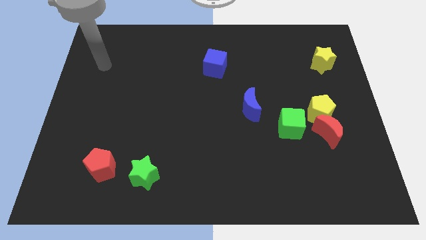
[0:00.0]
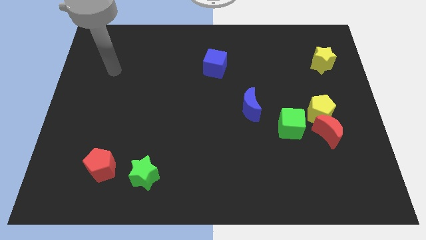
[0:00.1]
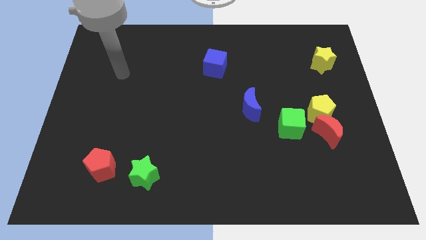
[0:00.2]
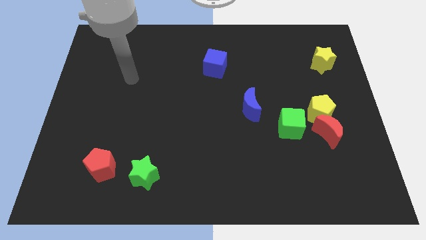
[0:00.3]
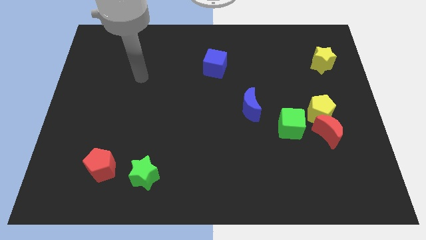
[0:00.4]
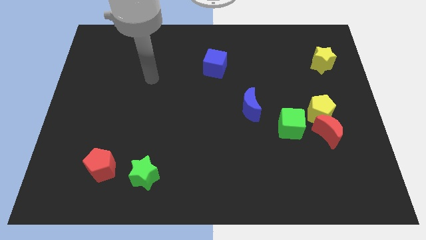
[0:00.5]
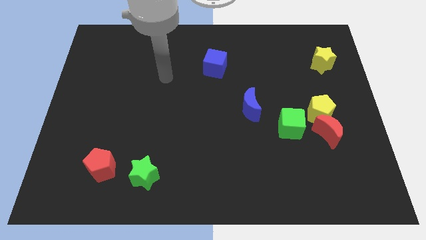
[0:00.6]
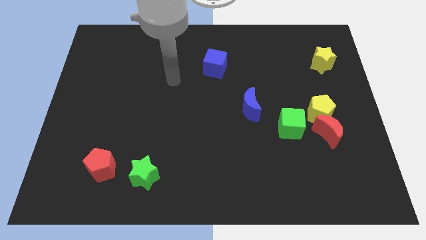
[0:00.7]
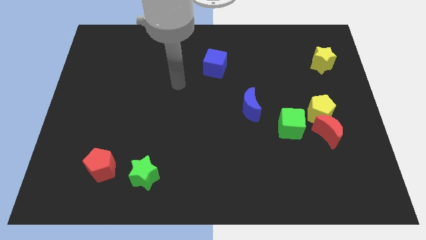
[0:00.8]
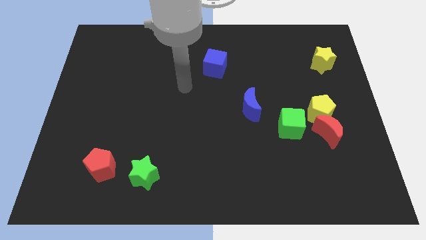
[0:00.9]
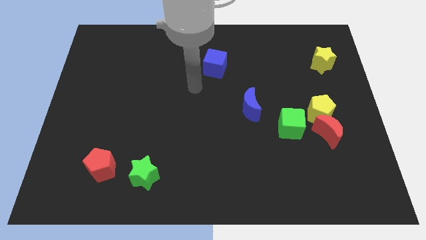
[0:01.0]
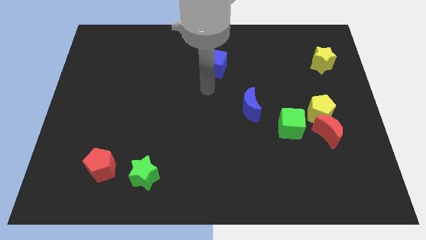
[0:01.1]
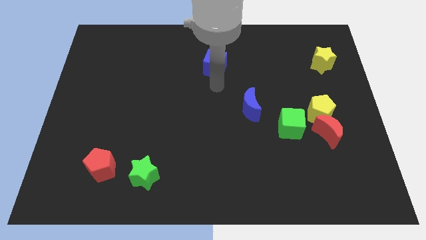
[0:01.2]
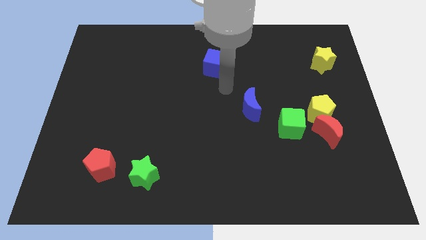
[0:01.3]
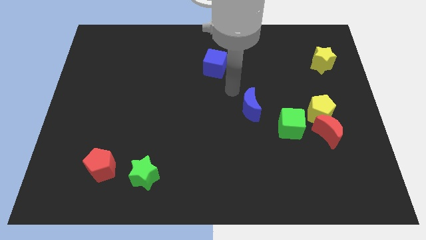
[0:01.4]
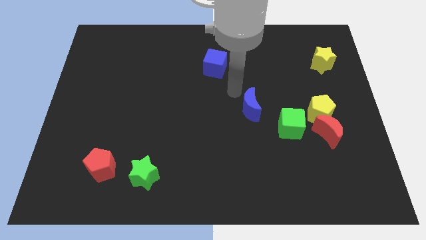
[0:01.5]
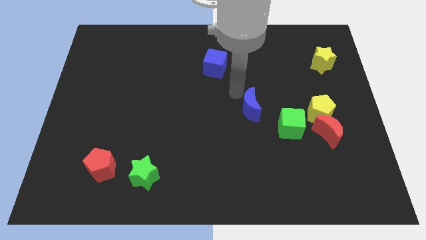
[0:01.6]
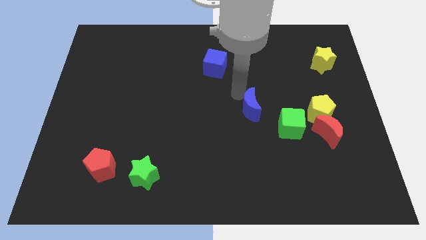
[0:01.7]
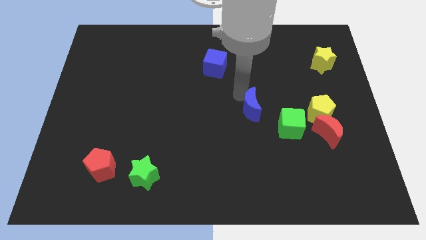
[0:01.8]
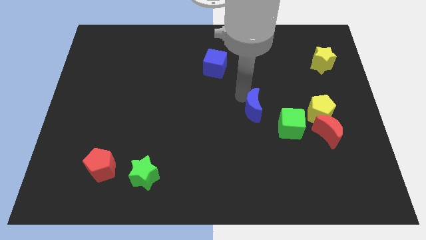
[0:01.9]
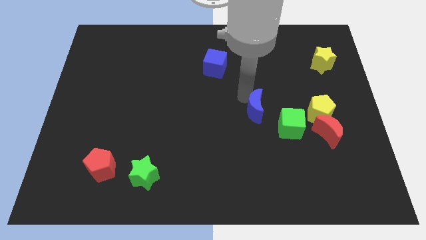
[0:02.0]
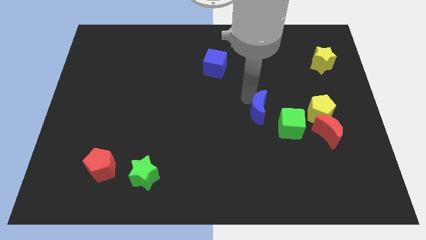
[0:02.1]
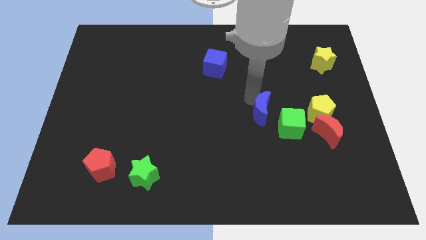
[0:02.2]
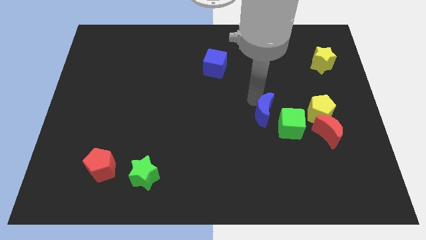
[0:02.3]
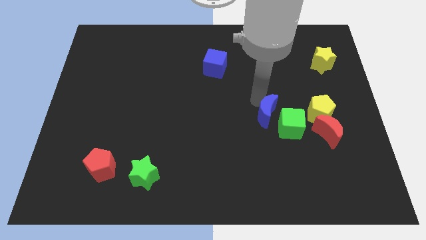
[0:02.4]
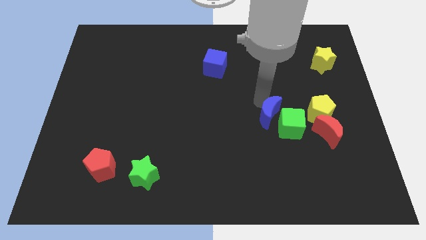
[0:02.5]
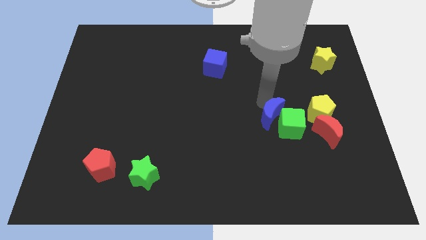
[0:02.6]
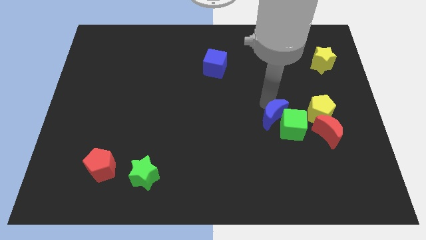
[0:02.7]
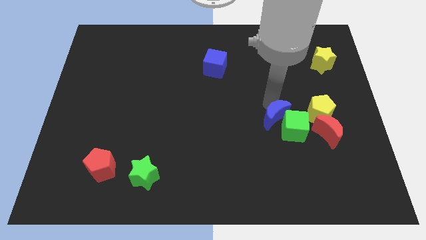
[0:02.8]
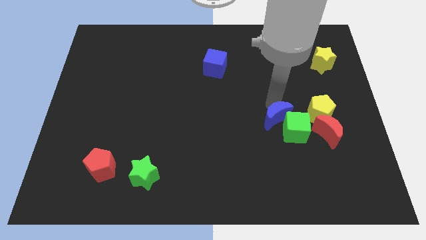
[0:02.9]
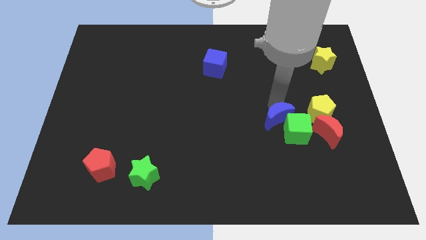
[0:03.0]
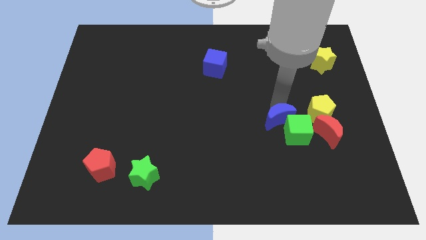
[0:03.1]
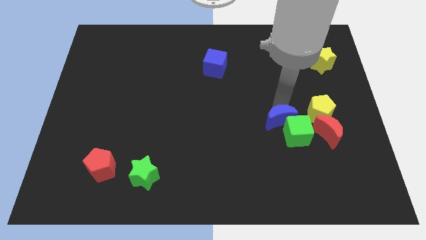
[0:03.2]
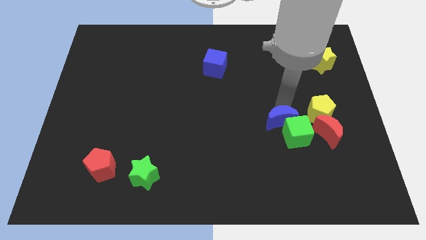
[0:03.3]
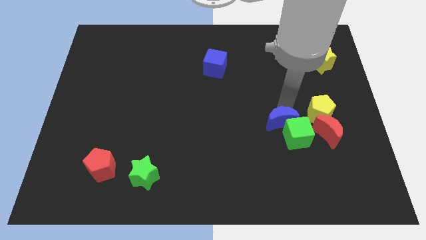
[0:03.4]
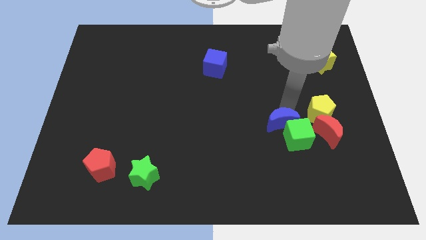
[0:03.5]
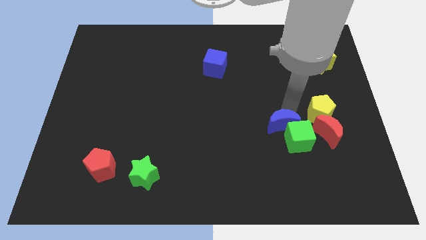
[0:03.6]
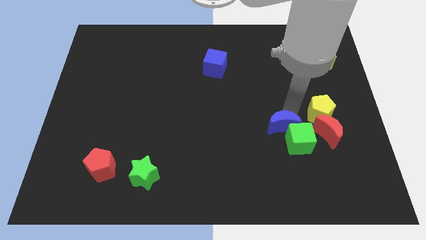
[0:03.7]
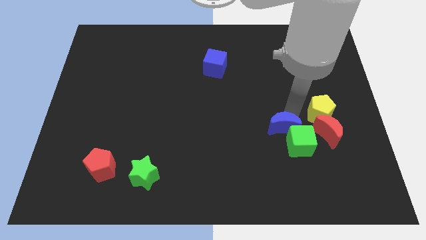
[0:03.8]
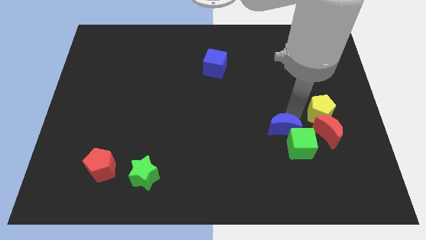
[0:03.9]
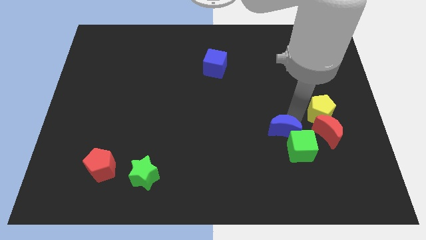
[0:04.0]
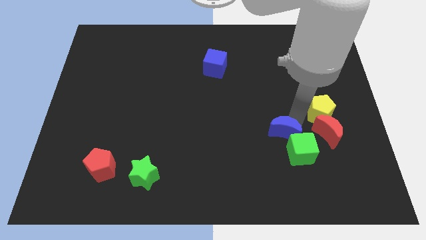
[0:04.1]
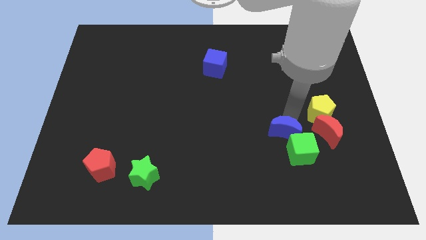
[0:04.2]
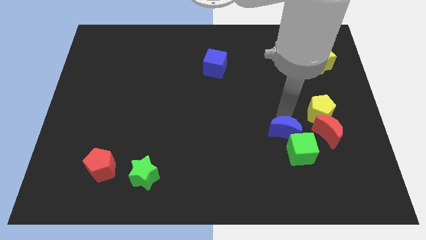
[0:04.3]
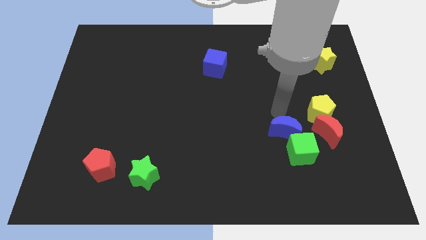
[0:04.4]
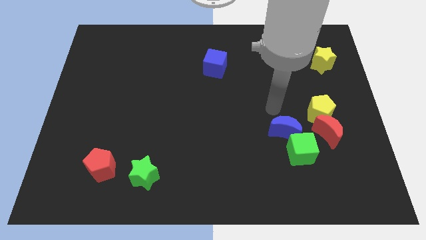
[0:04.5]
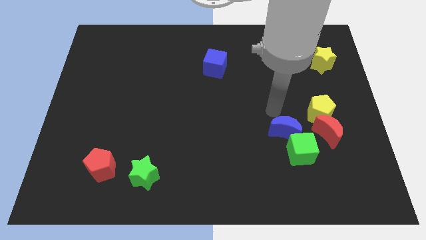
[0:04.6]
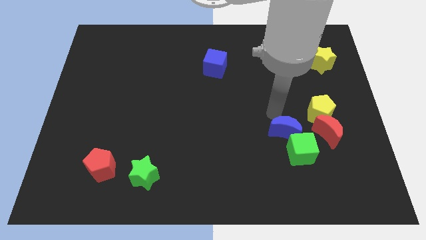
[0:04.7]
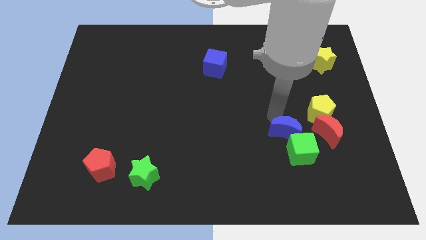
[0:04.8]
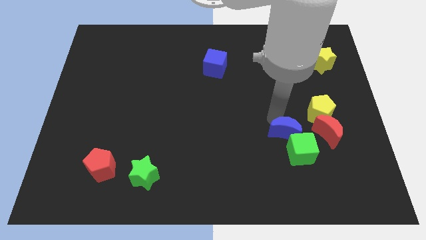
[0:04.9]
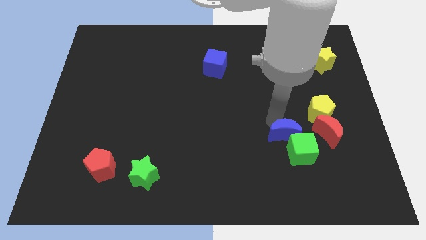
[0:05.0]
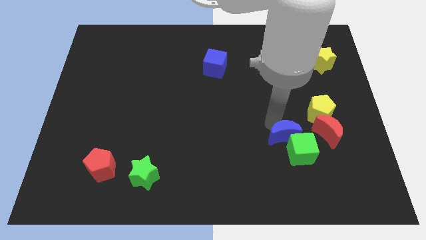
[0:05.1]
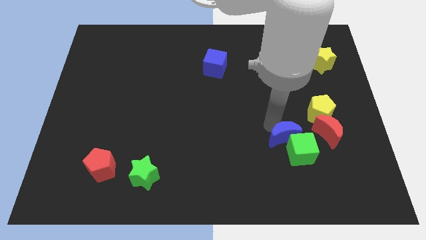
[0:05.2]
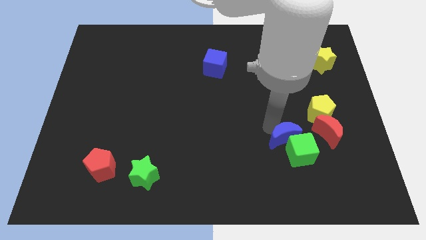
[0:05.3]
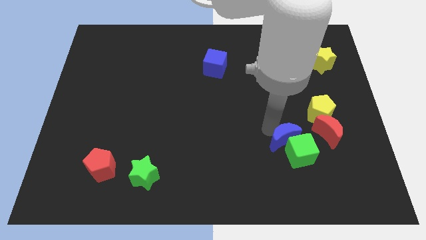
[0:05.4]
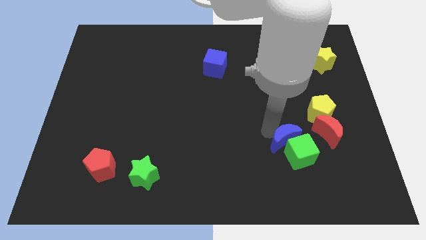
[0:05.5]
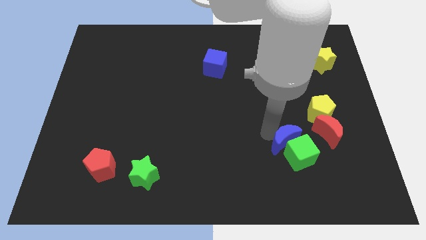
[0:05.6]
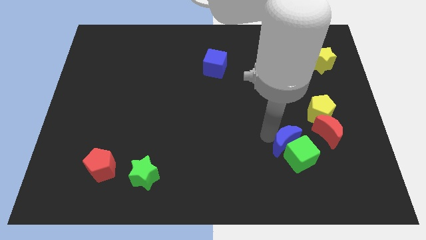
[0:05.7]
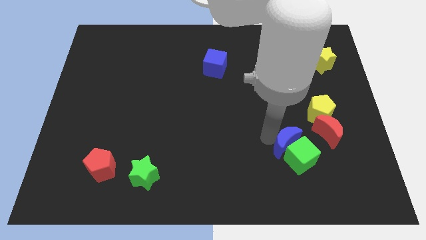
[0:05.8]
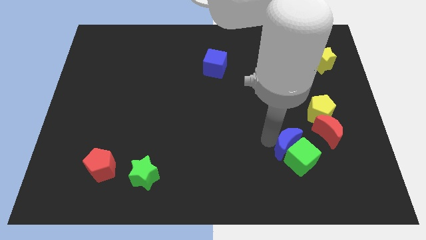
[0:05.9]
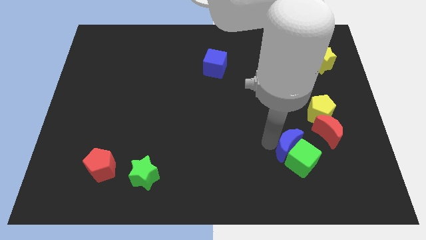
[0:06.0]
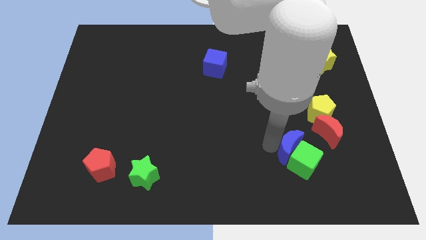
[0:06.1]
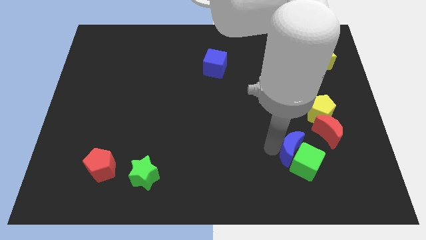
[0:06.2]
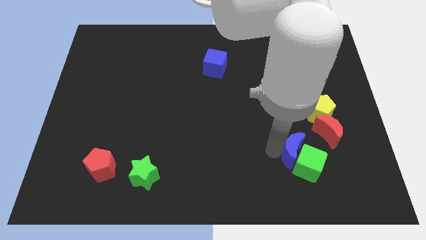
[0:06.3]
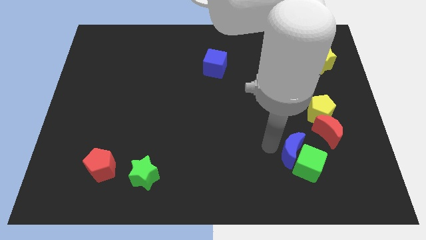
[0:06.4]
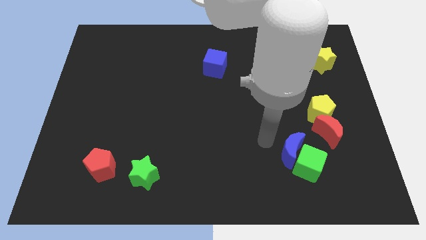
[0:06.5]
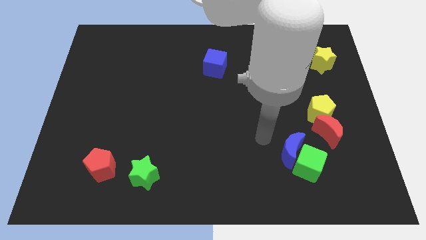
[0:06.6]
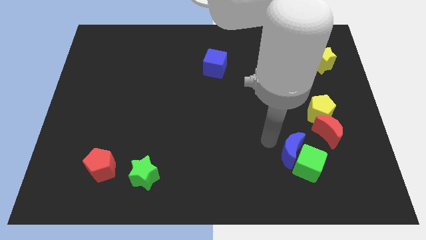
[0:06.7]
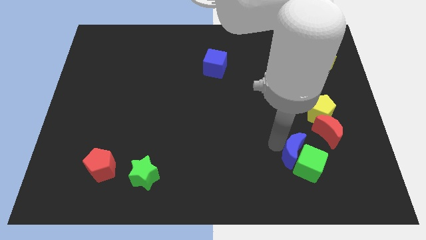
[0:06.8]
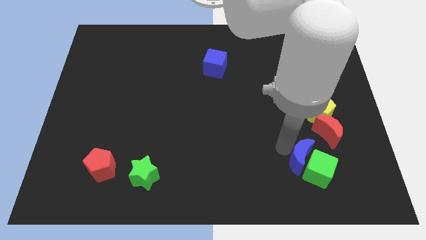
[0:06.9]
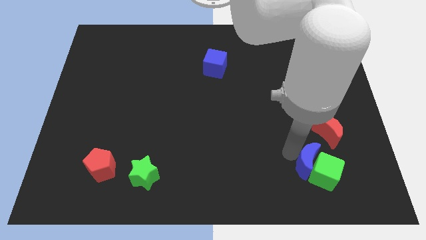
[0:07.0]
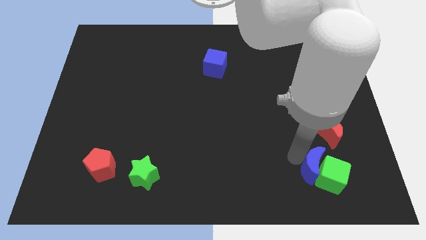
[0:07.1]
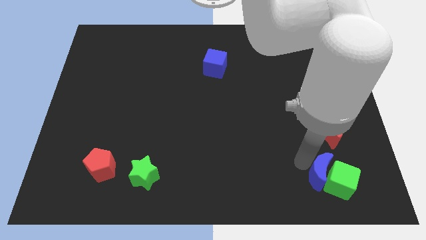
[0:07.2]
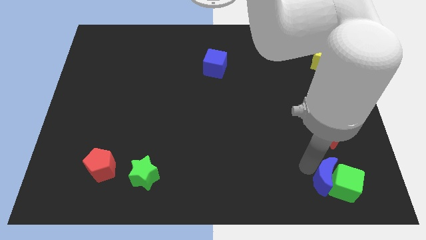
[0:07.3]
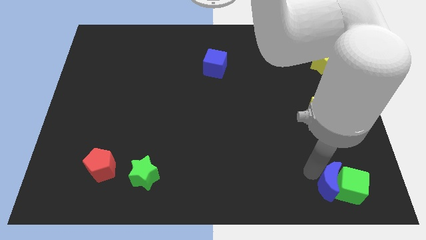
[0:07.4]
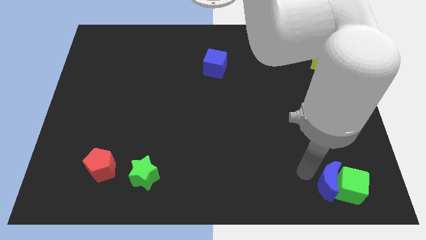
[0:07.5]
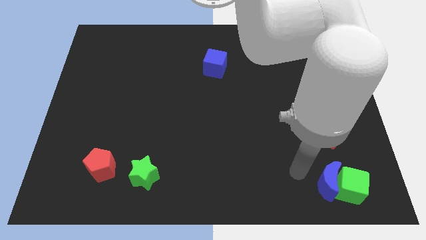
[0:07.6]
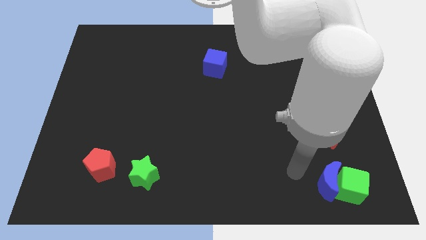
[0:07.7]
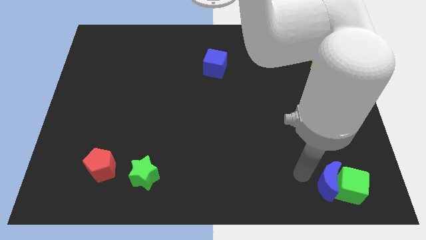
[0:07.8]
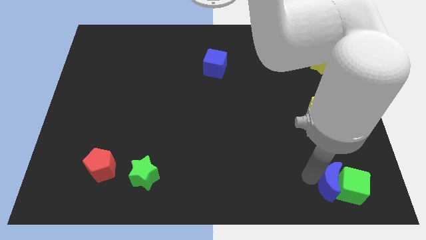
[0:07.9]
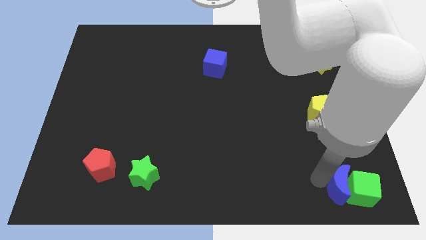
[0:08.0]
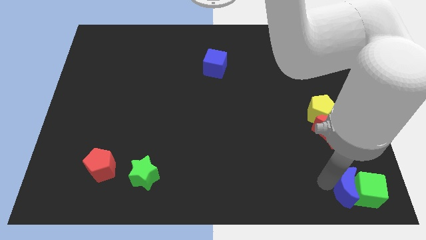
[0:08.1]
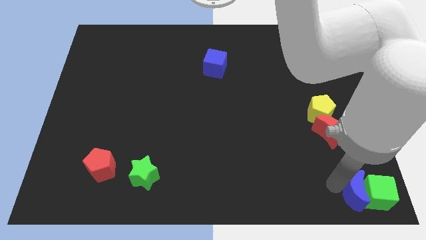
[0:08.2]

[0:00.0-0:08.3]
push the blue moon to the bottom right of the board
